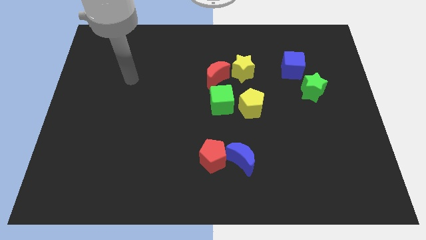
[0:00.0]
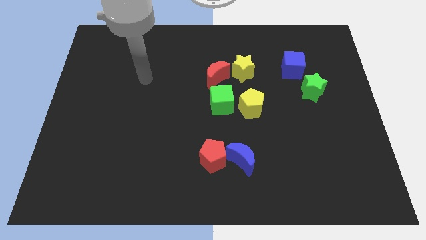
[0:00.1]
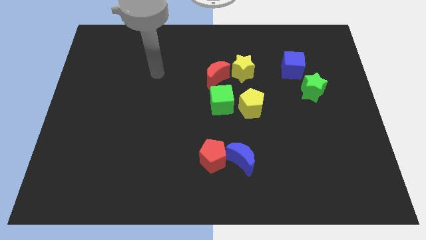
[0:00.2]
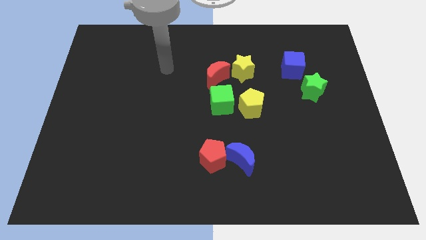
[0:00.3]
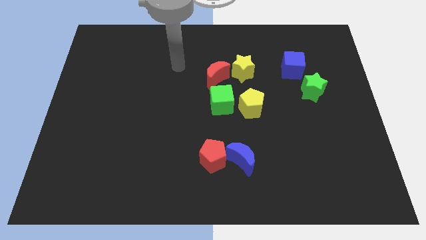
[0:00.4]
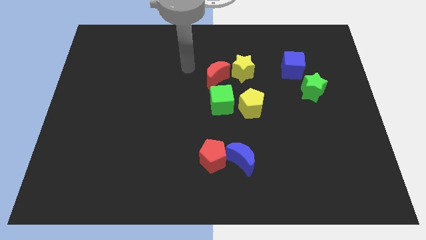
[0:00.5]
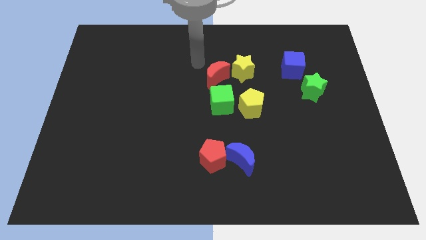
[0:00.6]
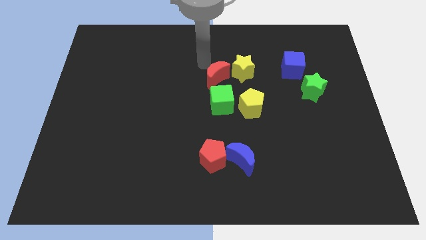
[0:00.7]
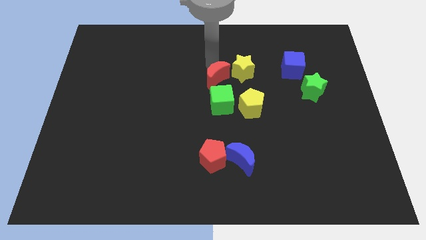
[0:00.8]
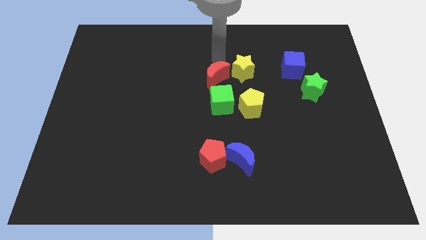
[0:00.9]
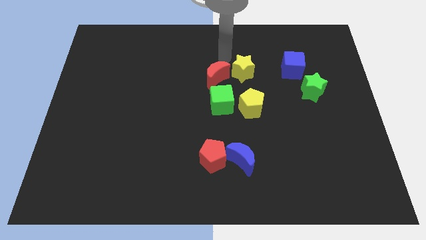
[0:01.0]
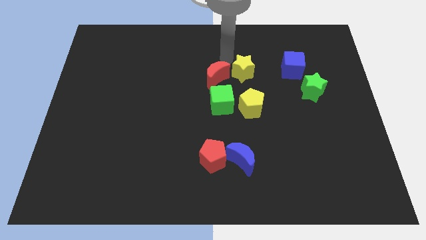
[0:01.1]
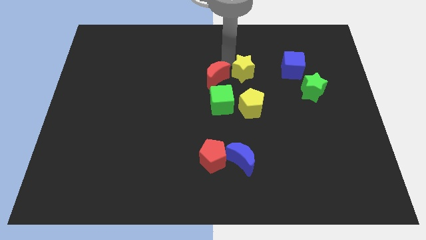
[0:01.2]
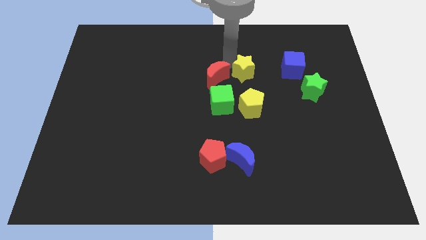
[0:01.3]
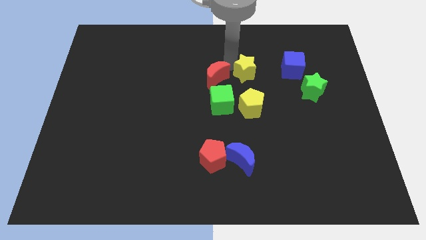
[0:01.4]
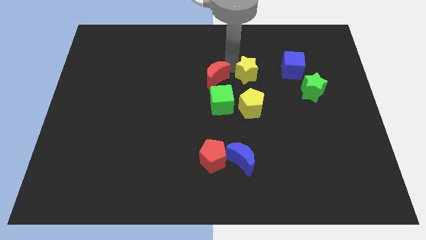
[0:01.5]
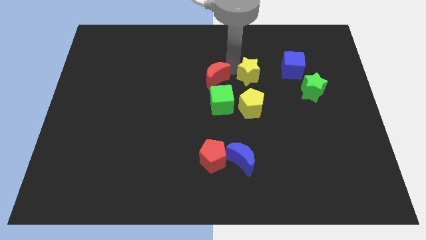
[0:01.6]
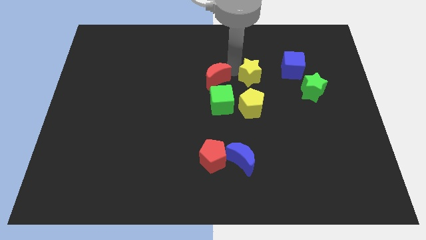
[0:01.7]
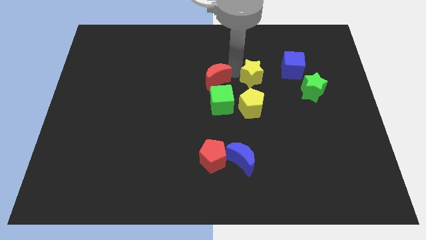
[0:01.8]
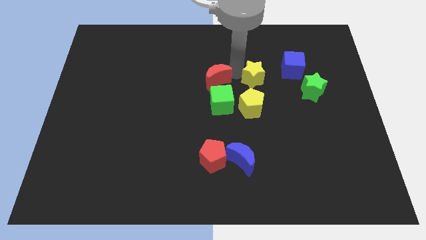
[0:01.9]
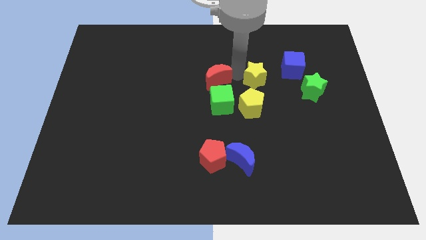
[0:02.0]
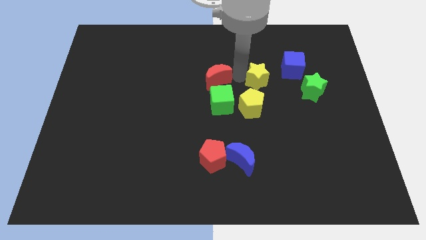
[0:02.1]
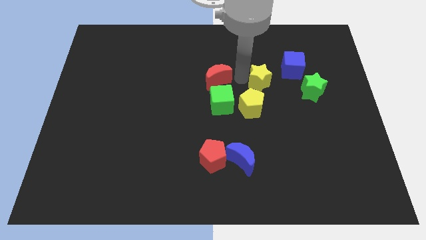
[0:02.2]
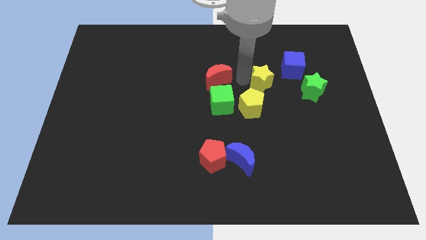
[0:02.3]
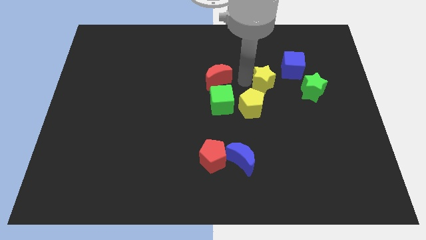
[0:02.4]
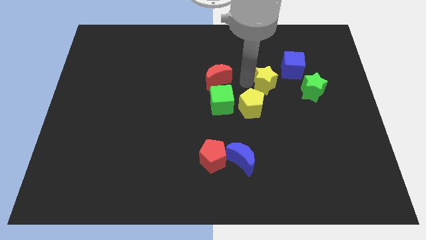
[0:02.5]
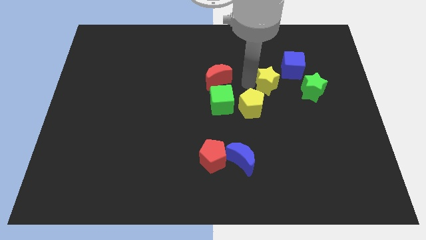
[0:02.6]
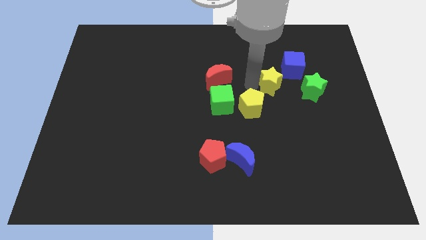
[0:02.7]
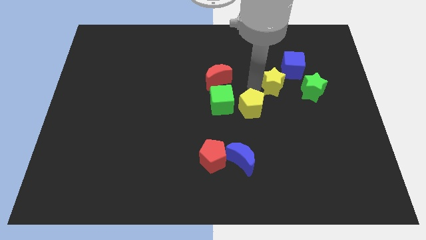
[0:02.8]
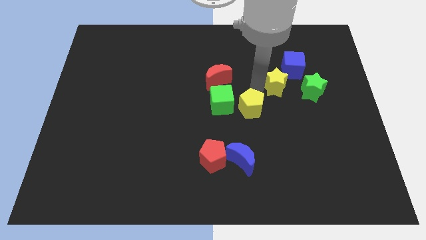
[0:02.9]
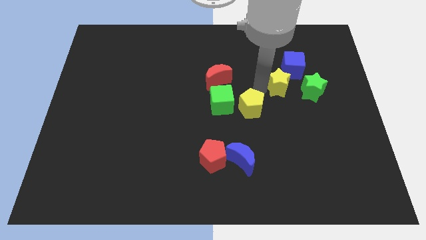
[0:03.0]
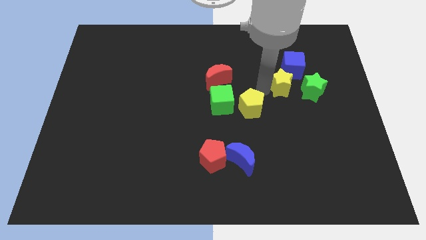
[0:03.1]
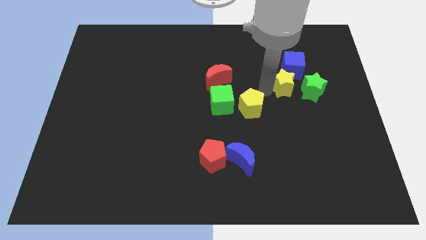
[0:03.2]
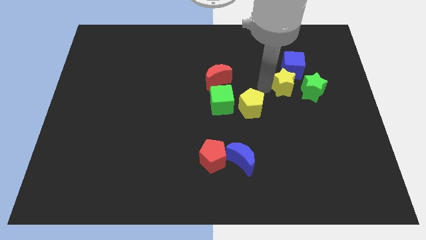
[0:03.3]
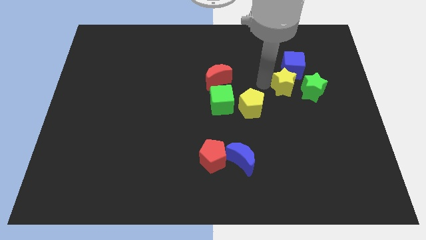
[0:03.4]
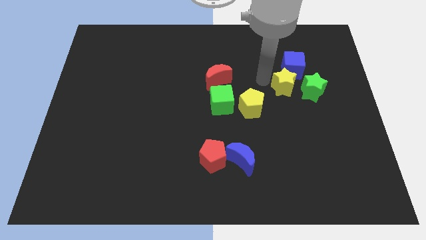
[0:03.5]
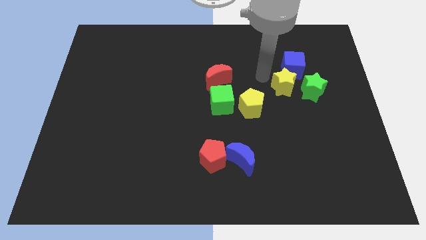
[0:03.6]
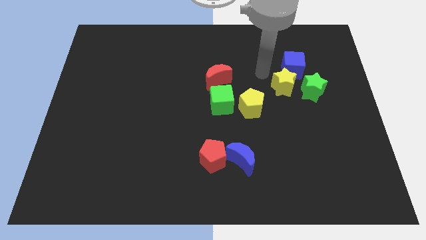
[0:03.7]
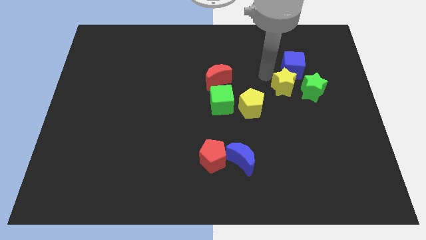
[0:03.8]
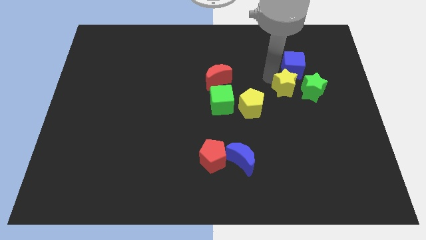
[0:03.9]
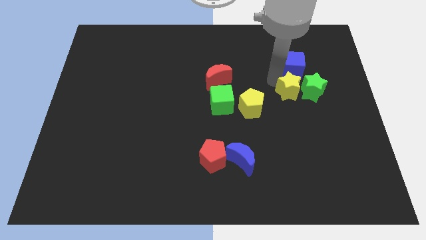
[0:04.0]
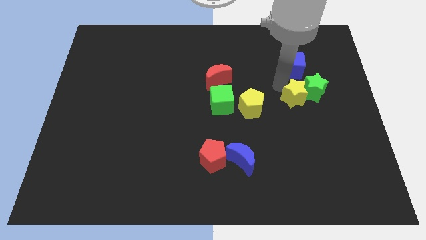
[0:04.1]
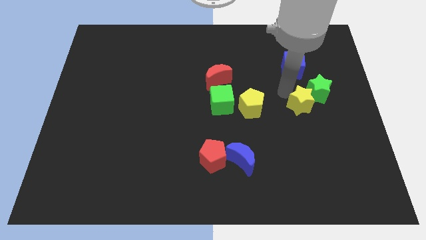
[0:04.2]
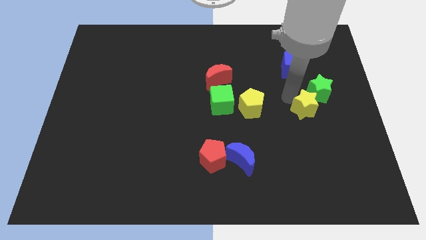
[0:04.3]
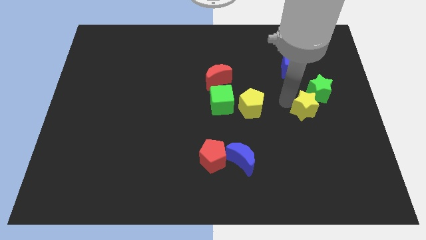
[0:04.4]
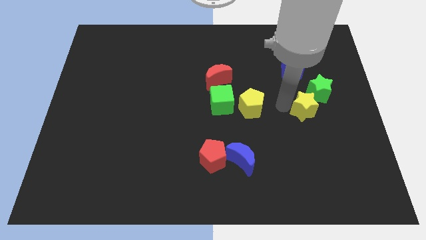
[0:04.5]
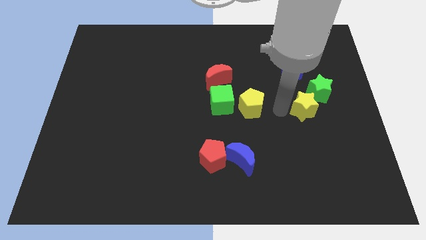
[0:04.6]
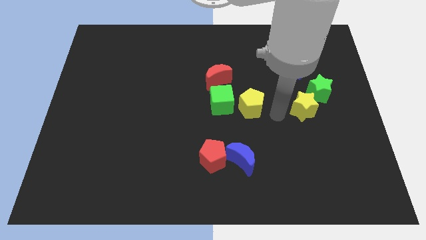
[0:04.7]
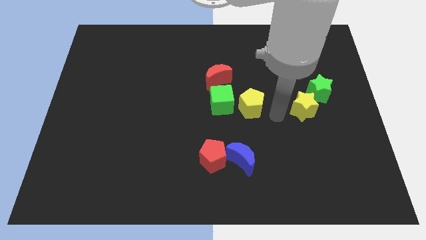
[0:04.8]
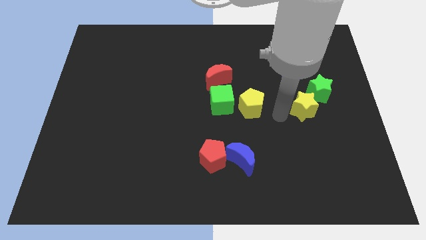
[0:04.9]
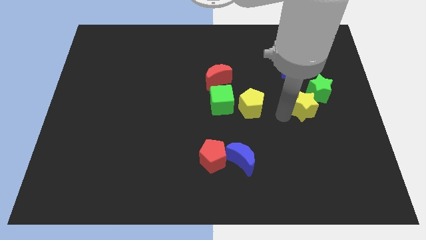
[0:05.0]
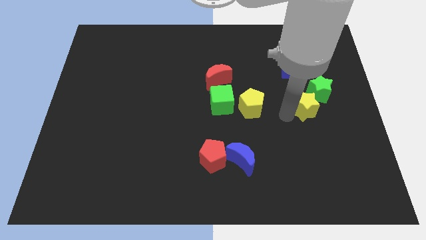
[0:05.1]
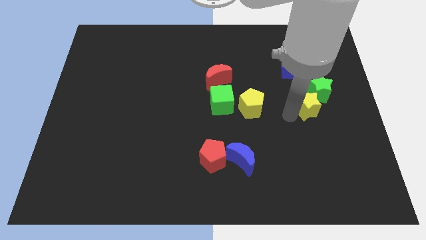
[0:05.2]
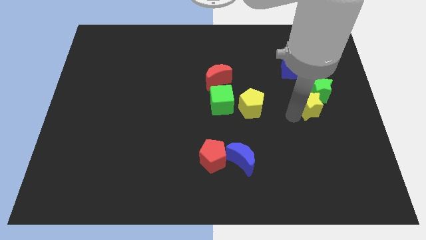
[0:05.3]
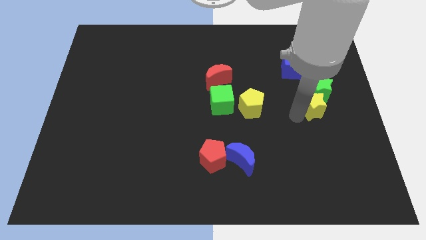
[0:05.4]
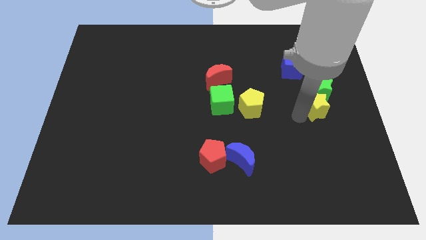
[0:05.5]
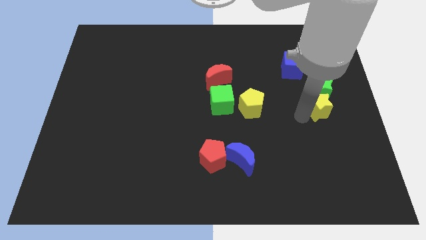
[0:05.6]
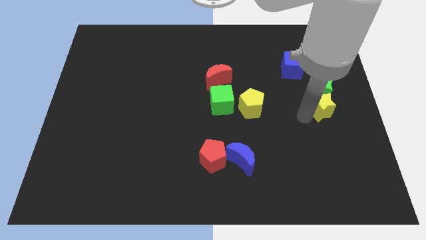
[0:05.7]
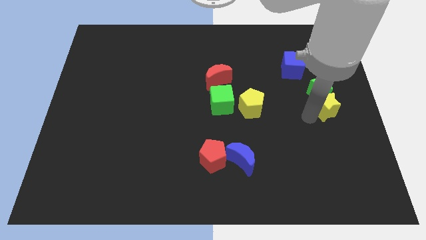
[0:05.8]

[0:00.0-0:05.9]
slide the yellow star to the right side of the board
